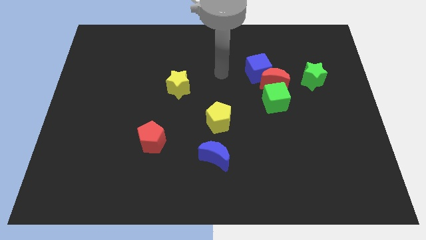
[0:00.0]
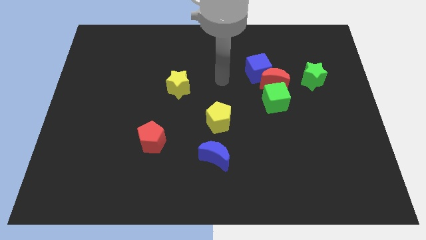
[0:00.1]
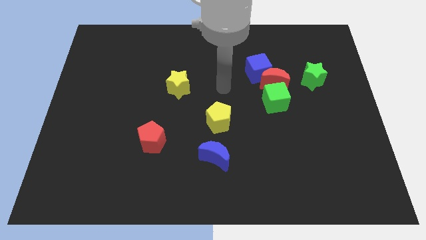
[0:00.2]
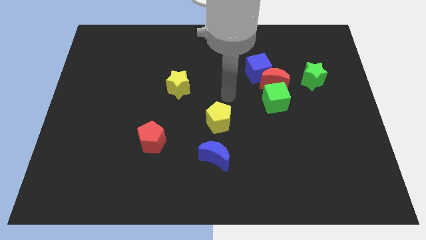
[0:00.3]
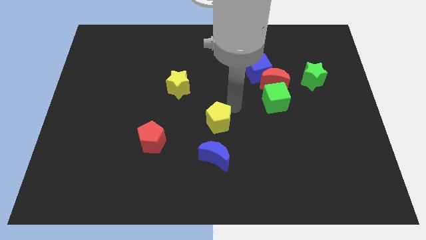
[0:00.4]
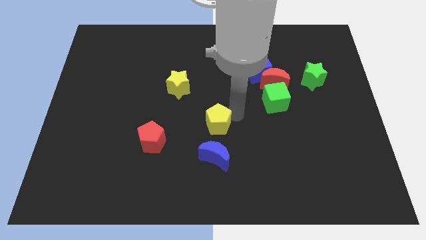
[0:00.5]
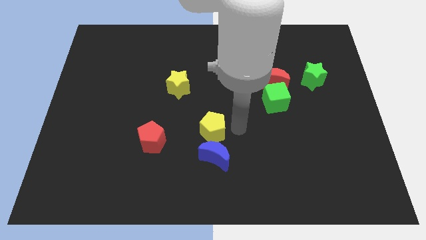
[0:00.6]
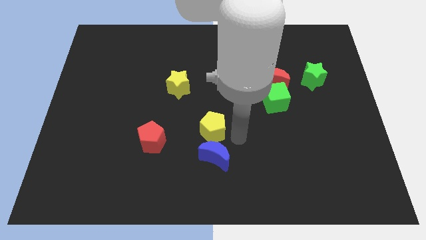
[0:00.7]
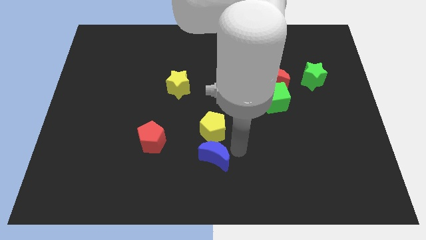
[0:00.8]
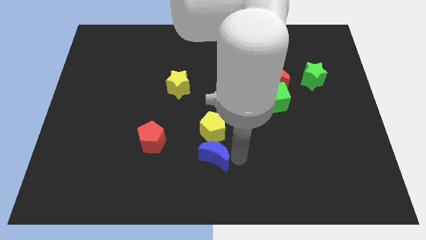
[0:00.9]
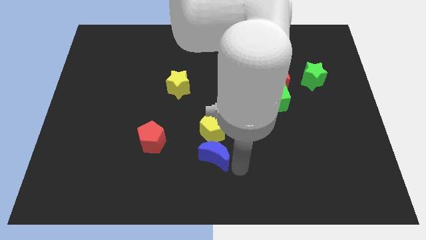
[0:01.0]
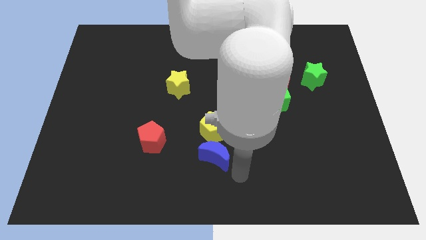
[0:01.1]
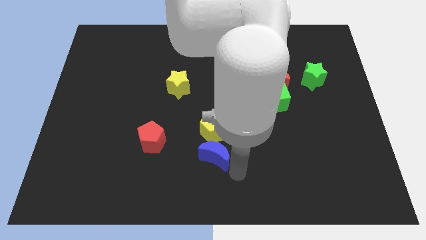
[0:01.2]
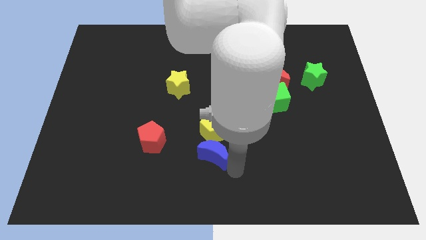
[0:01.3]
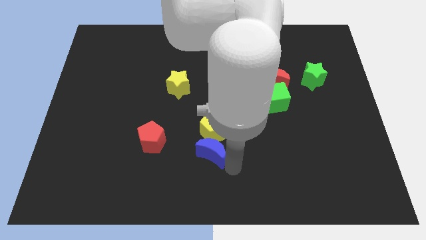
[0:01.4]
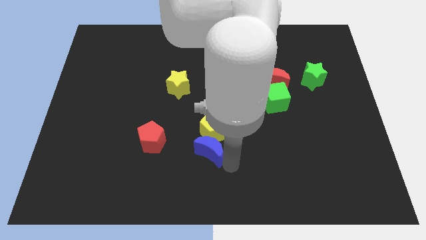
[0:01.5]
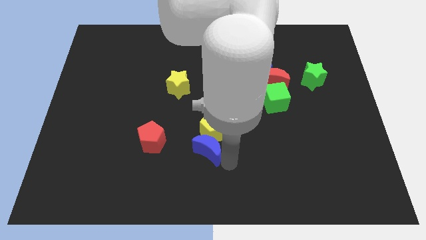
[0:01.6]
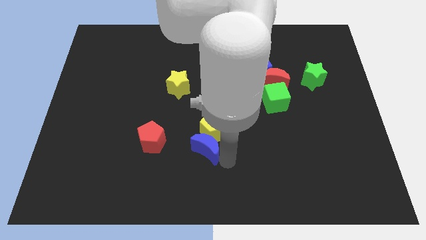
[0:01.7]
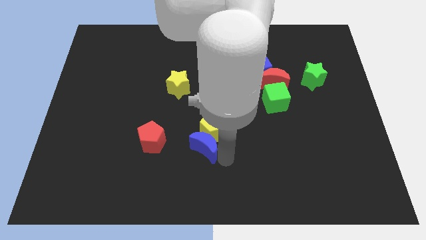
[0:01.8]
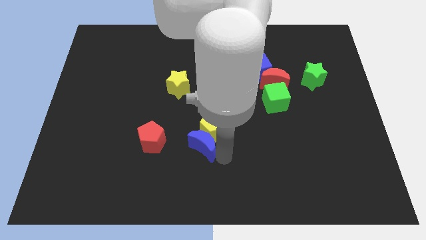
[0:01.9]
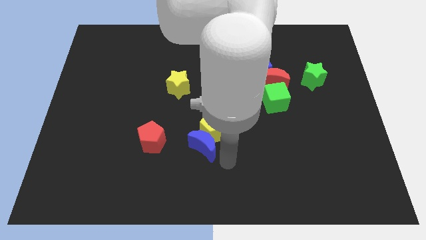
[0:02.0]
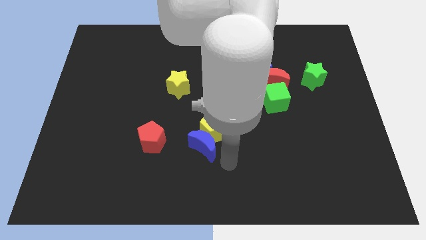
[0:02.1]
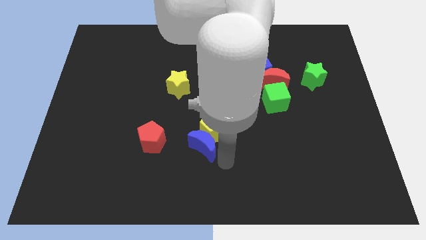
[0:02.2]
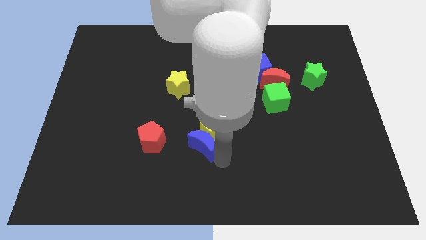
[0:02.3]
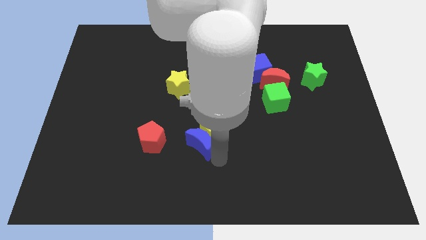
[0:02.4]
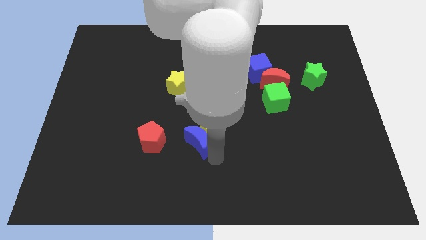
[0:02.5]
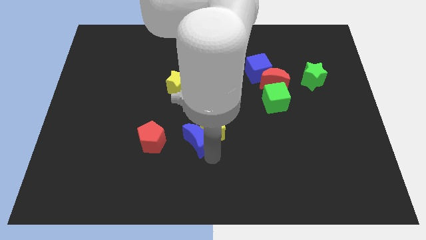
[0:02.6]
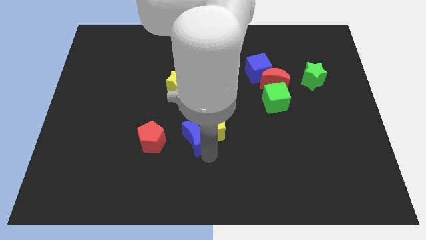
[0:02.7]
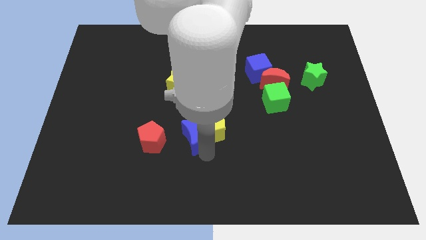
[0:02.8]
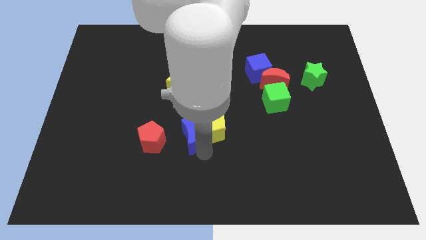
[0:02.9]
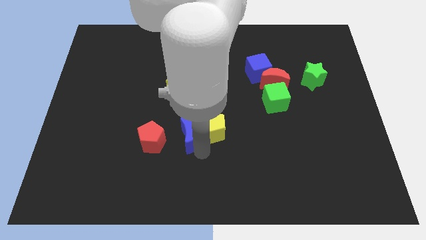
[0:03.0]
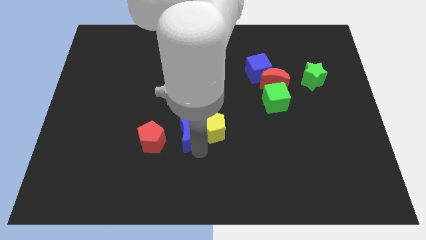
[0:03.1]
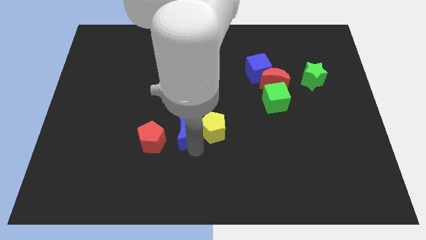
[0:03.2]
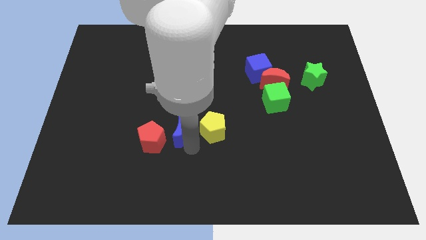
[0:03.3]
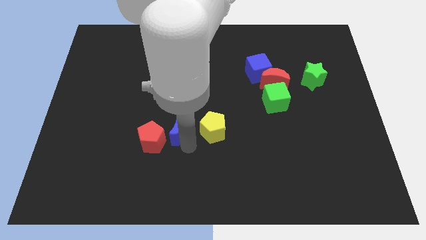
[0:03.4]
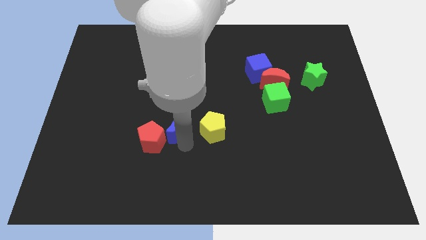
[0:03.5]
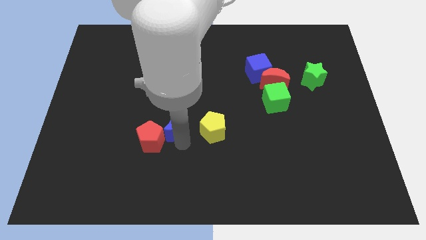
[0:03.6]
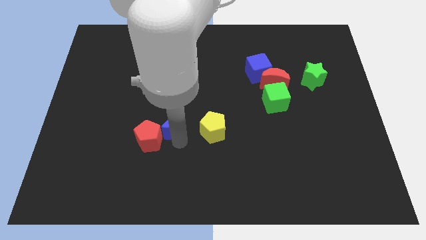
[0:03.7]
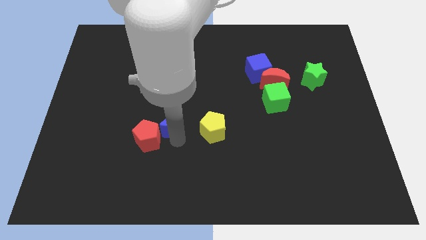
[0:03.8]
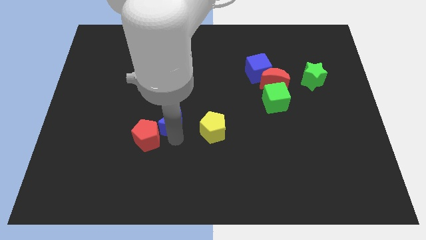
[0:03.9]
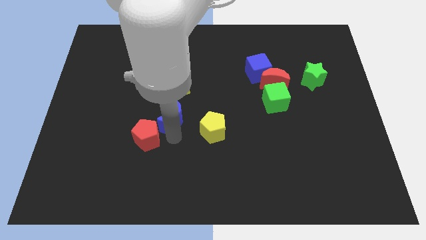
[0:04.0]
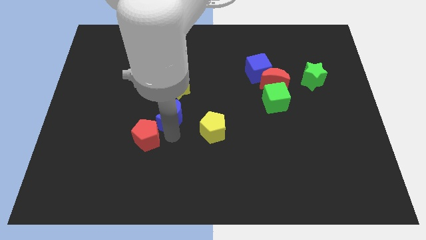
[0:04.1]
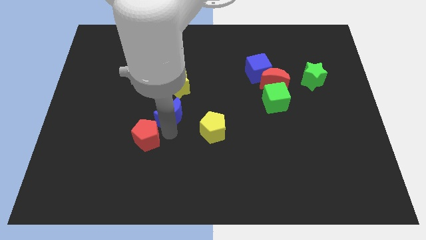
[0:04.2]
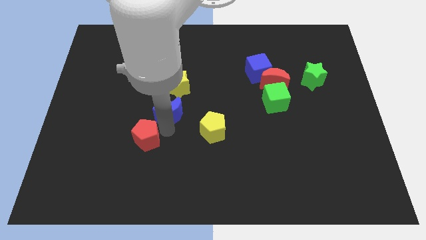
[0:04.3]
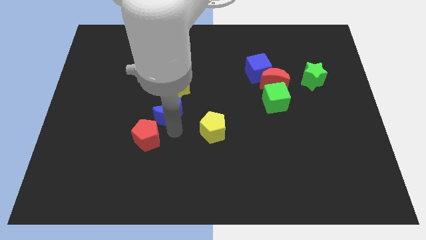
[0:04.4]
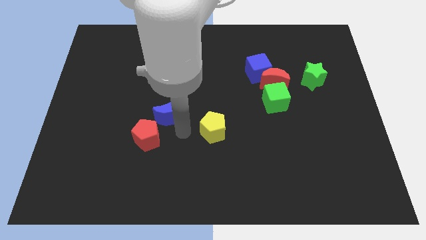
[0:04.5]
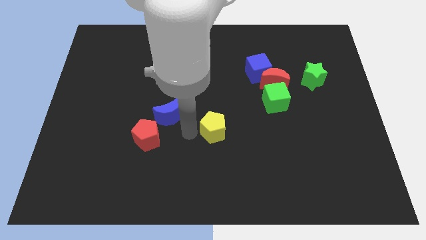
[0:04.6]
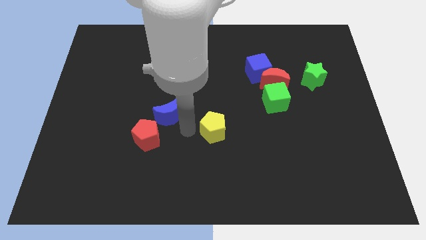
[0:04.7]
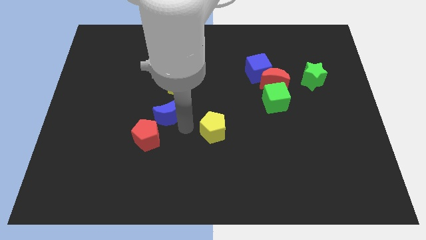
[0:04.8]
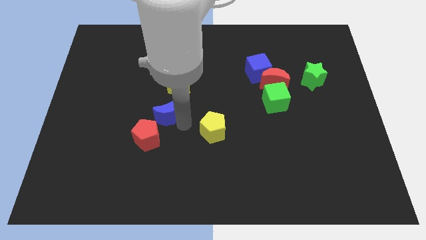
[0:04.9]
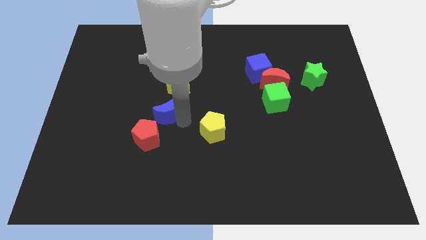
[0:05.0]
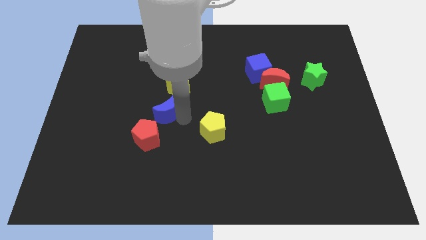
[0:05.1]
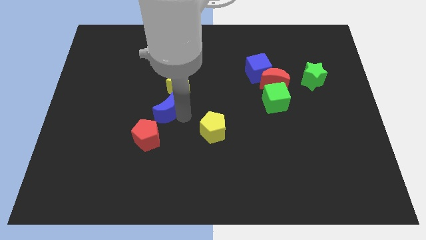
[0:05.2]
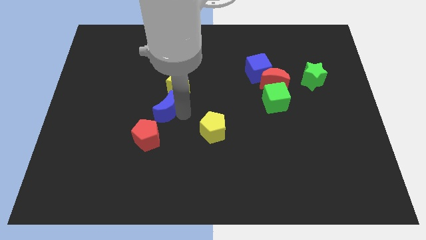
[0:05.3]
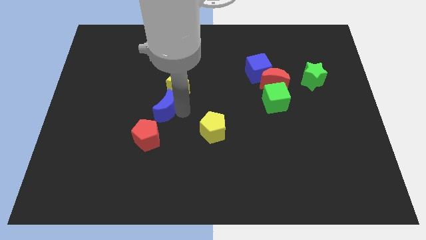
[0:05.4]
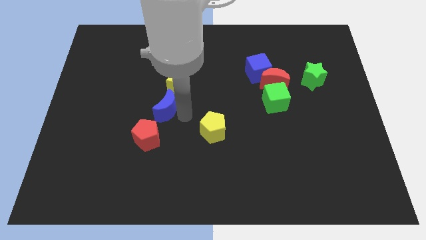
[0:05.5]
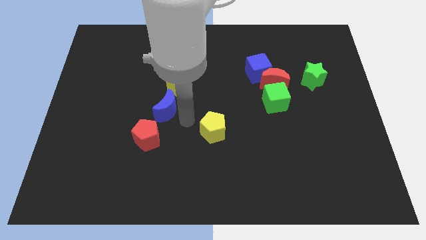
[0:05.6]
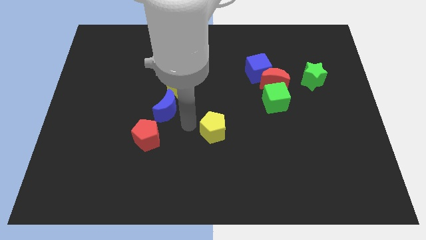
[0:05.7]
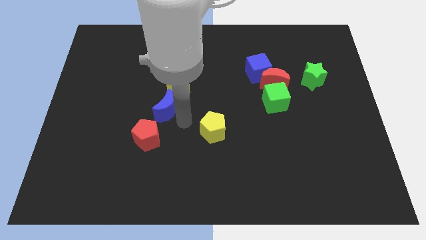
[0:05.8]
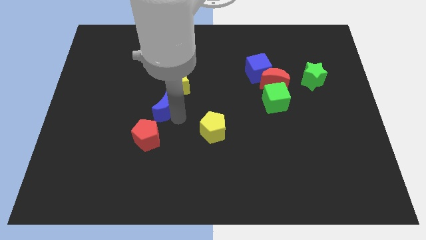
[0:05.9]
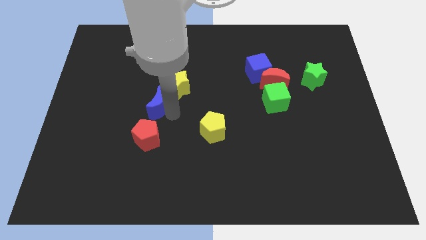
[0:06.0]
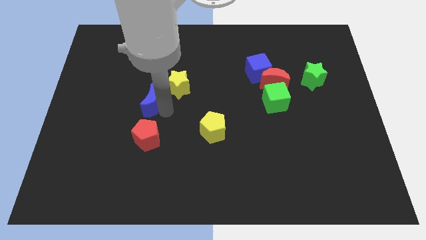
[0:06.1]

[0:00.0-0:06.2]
move the blue moon diagonally upwards and to the left
